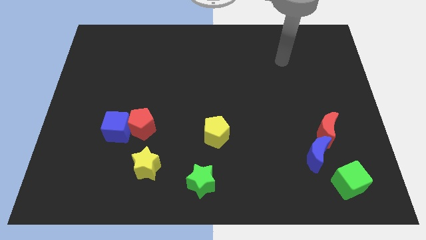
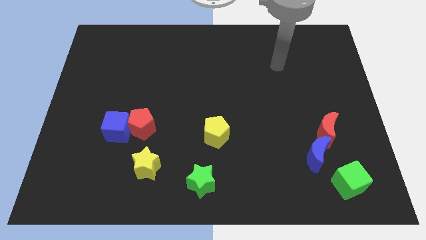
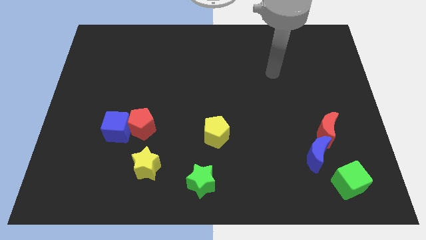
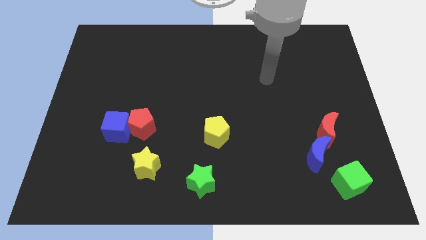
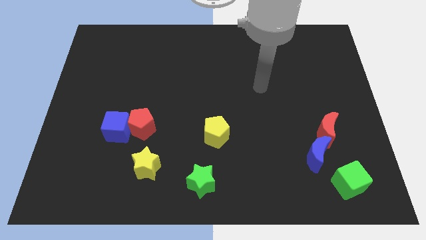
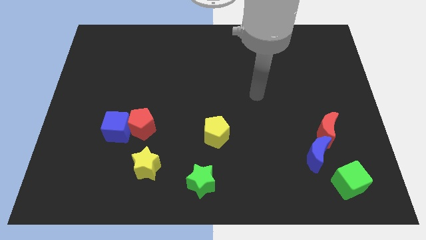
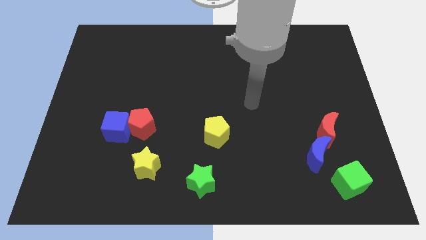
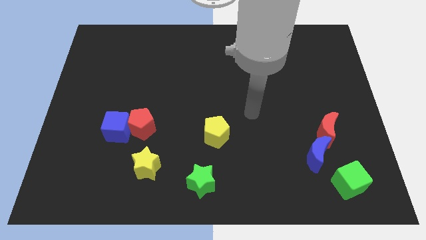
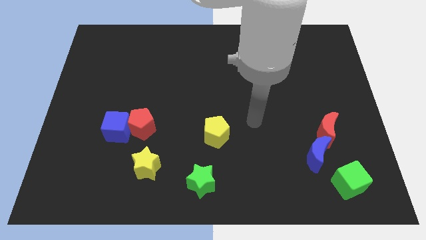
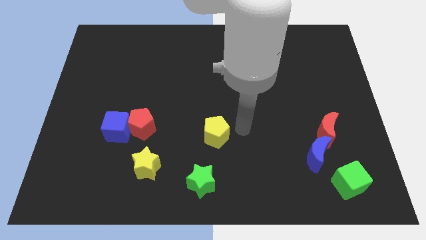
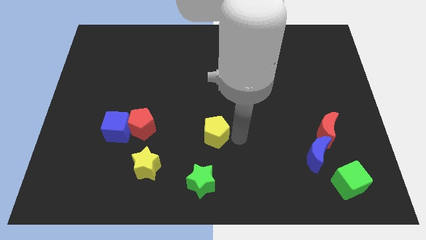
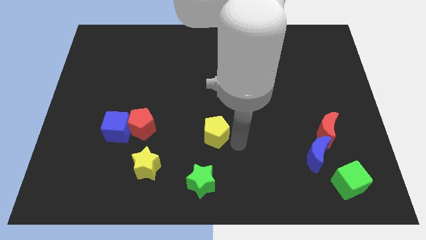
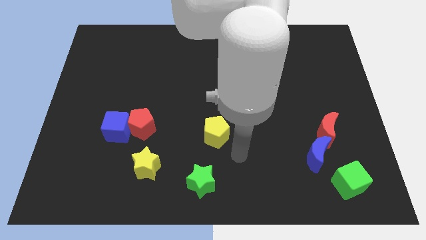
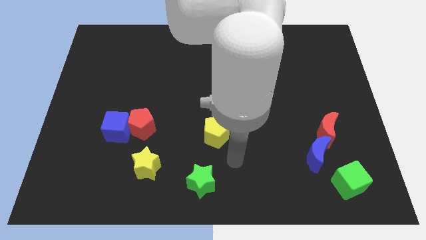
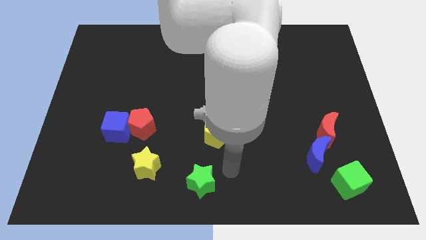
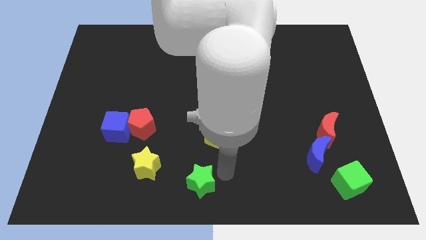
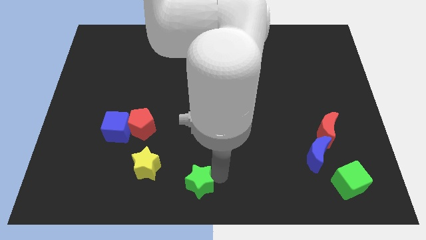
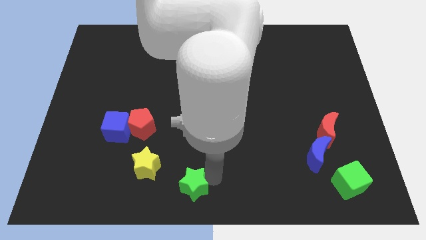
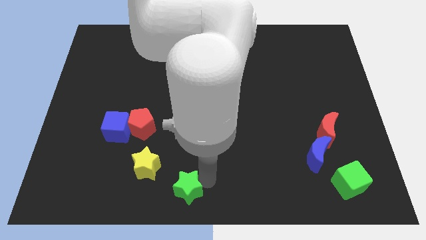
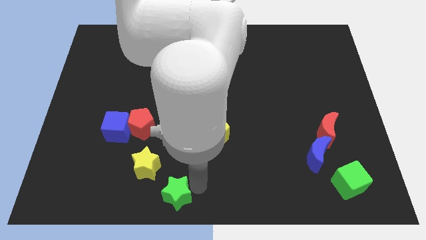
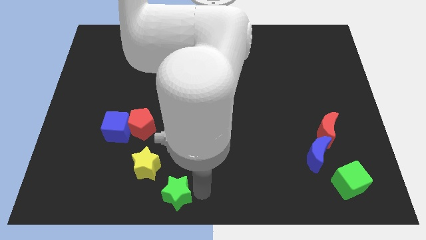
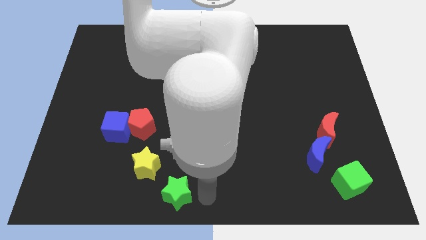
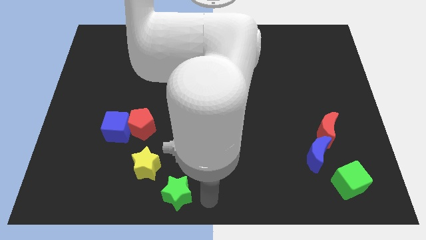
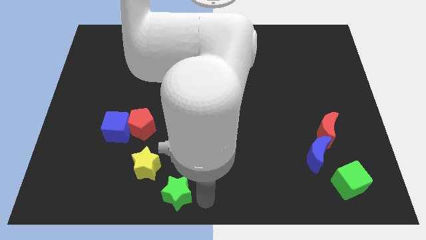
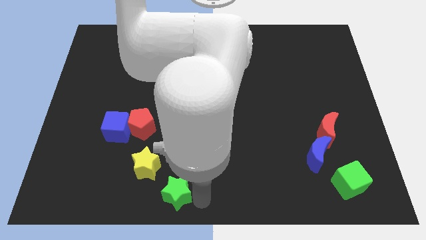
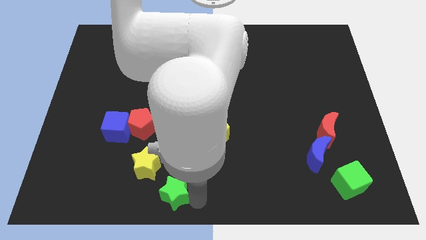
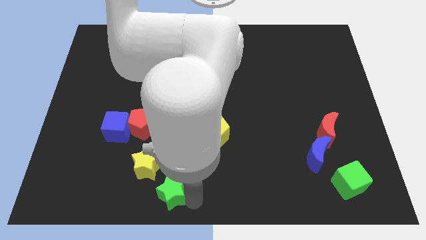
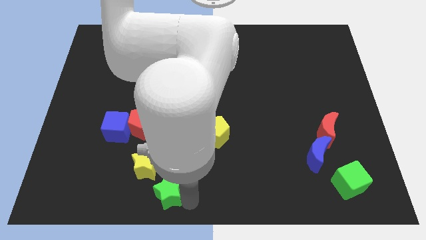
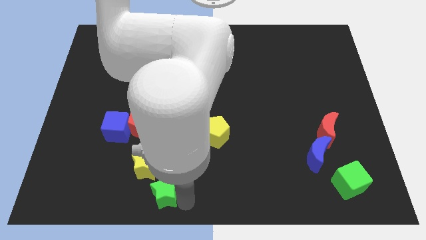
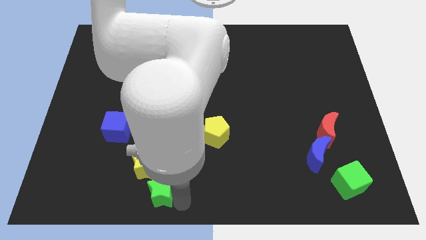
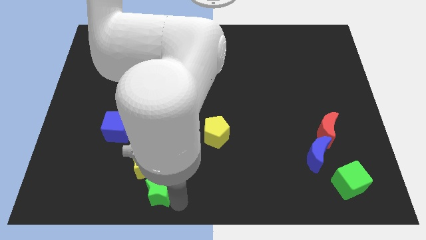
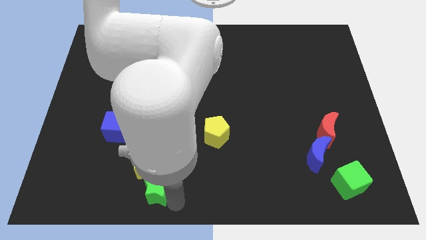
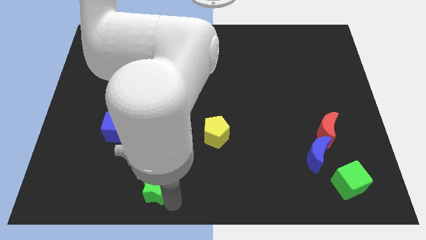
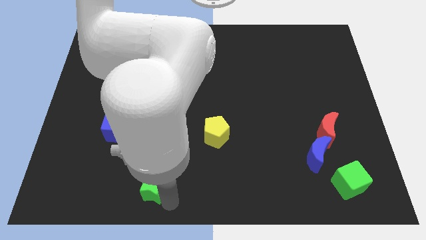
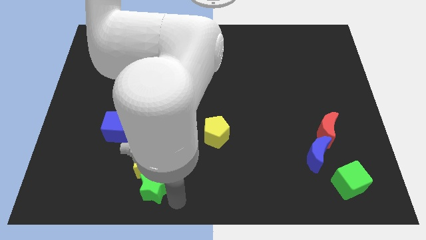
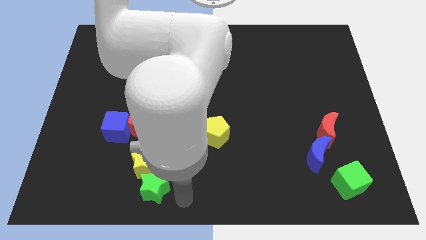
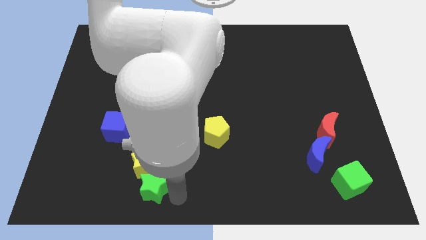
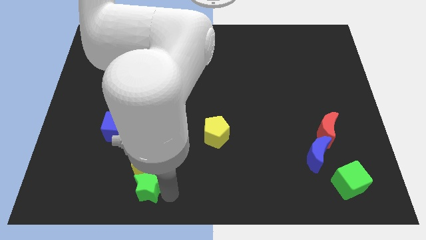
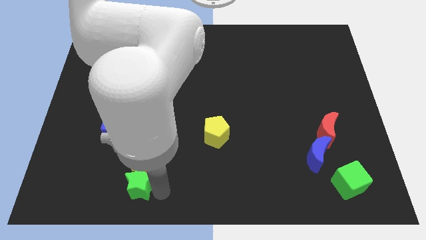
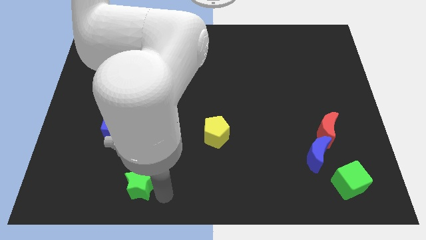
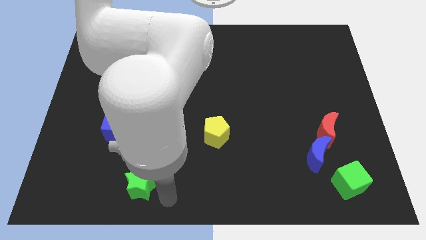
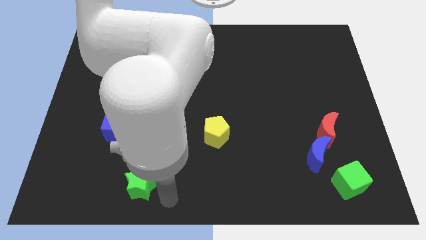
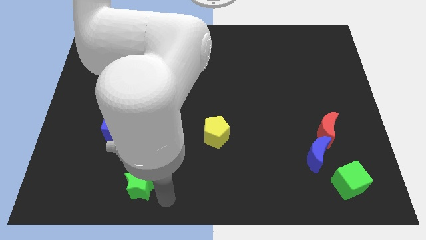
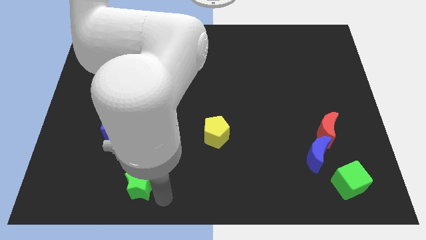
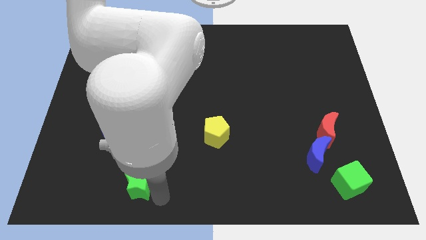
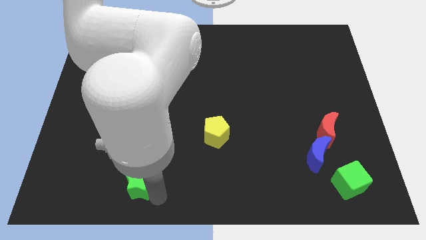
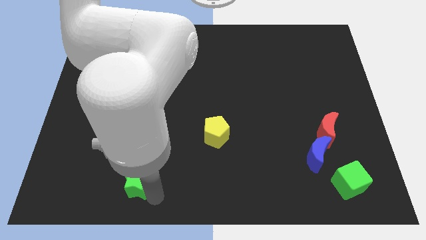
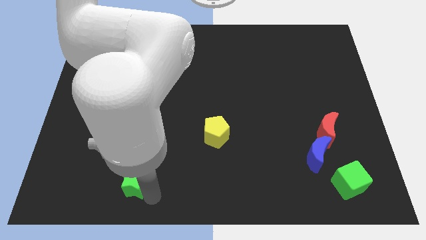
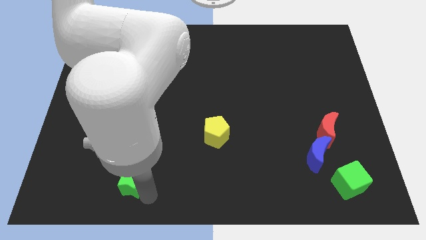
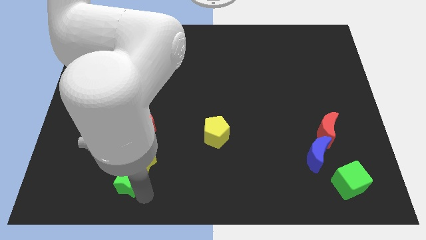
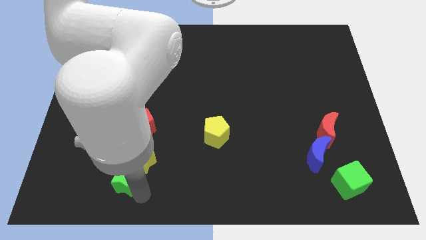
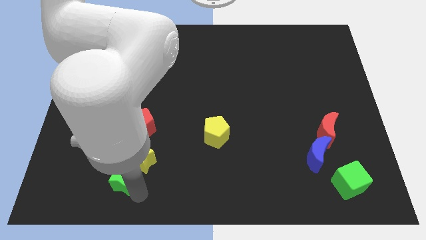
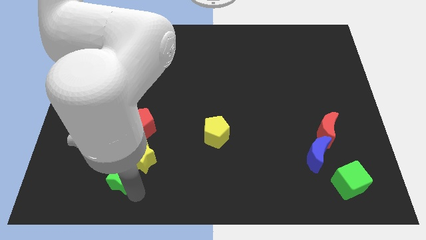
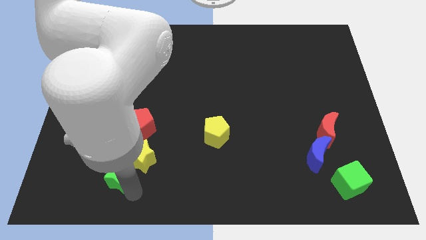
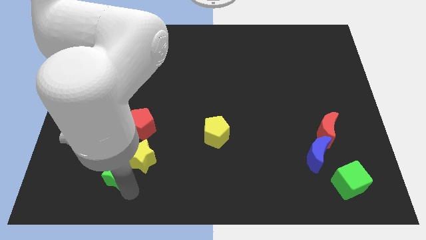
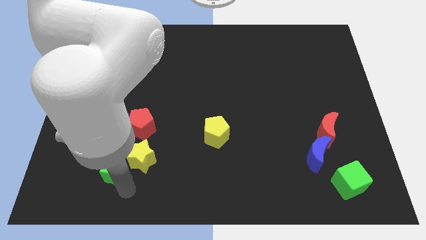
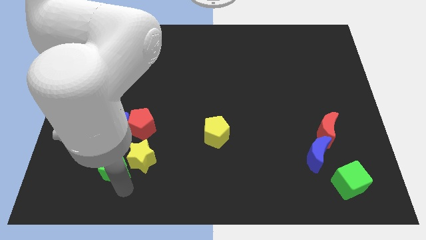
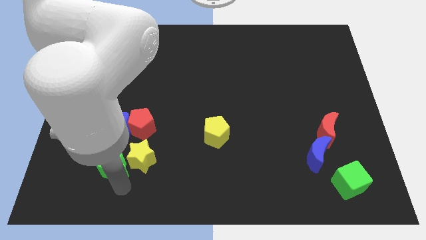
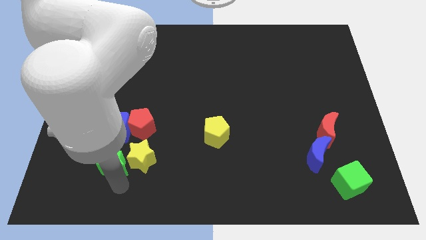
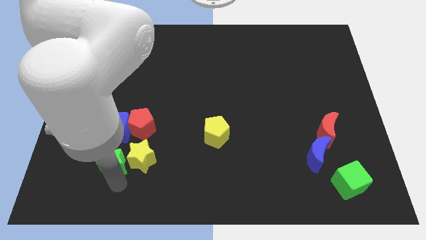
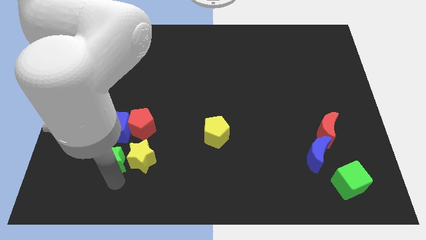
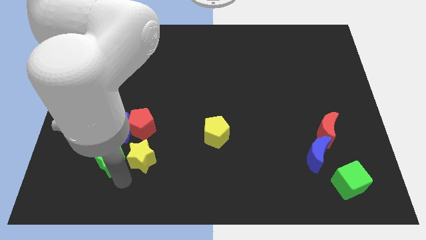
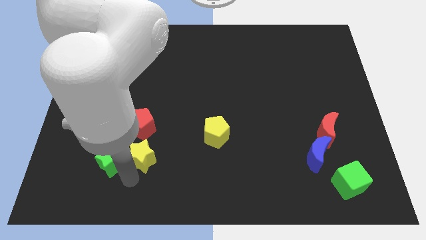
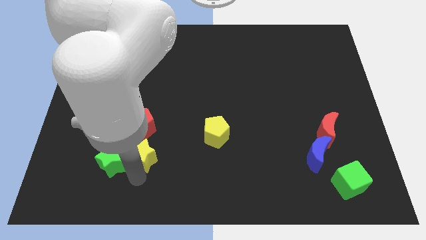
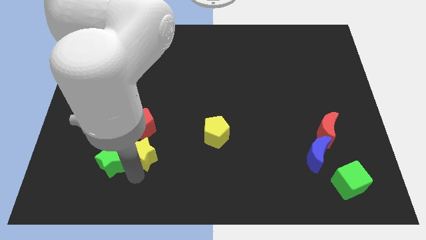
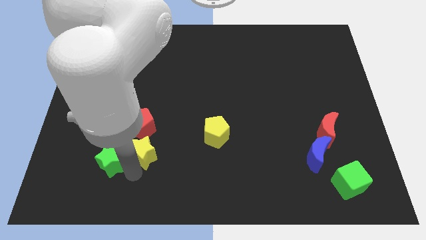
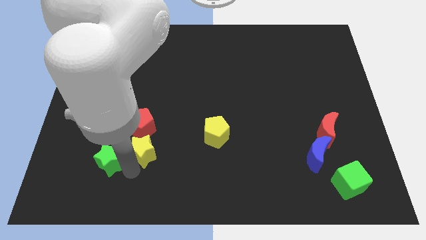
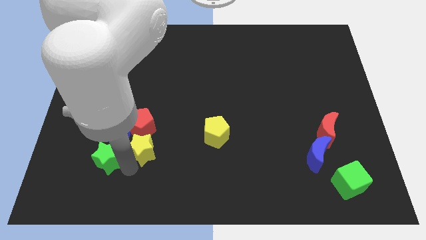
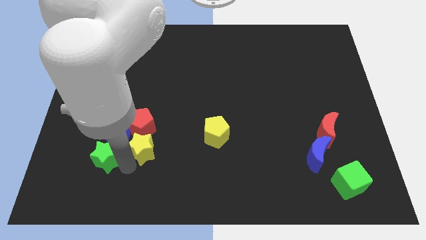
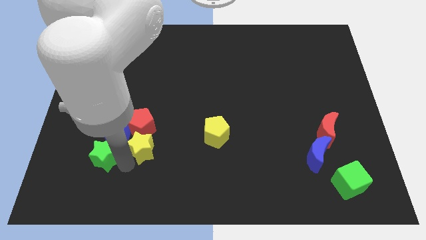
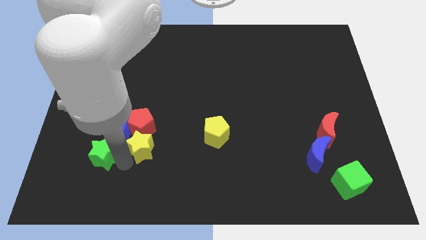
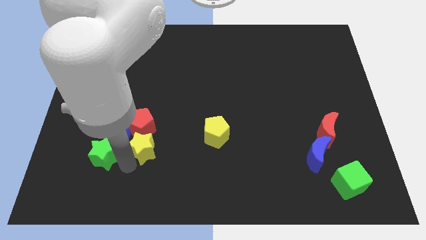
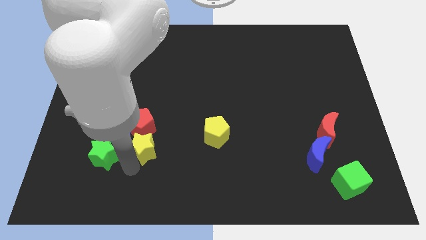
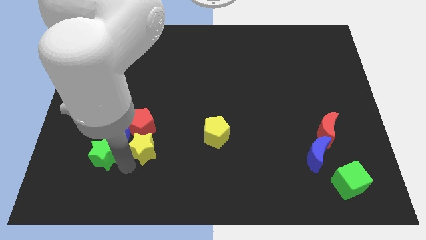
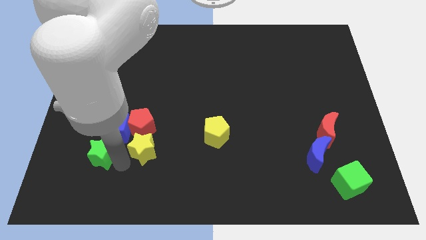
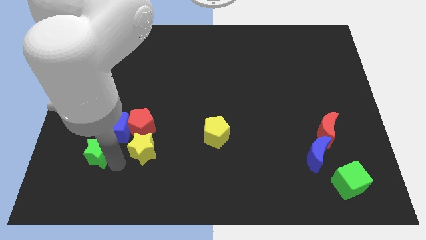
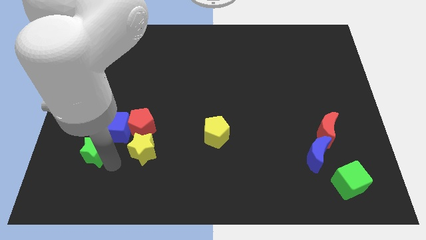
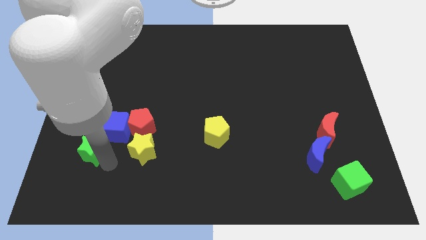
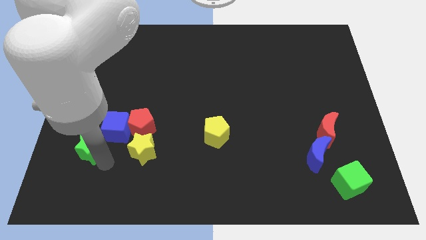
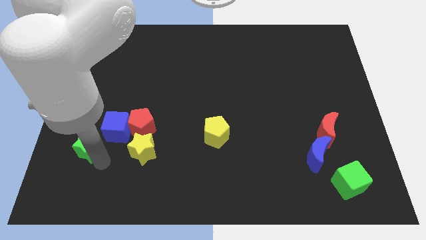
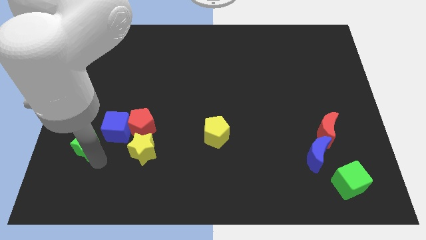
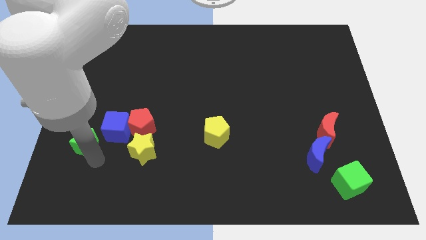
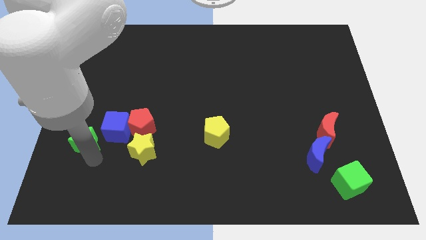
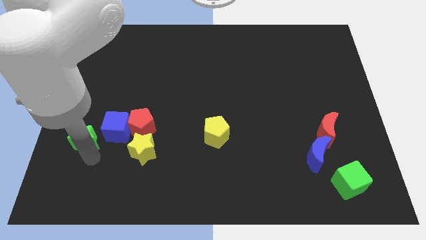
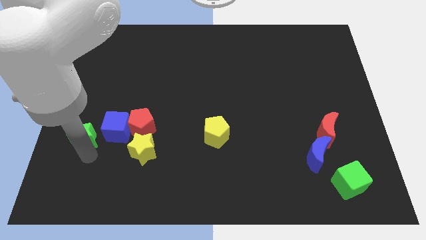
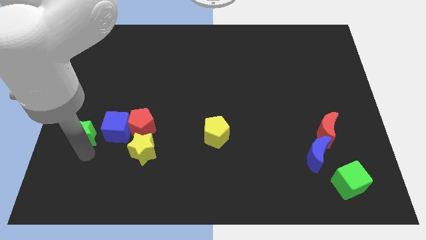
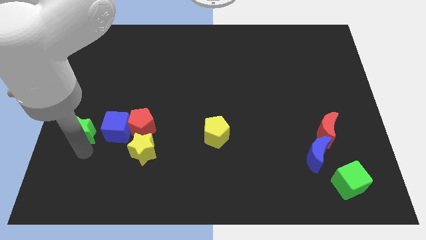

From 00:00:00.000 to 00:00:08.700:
push the green star to the left side of the board
